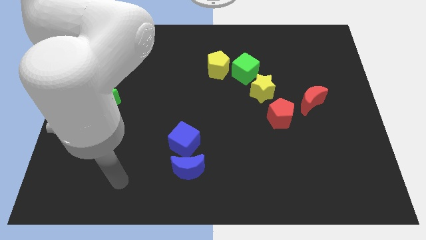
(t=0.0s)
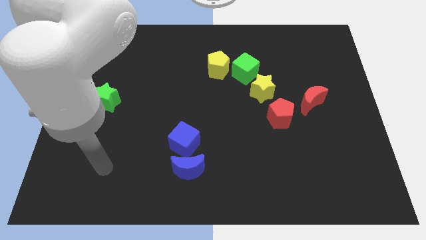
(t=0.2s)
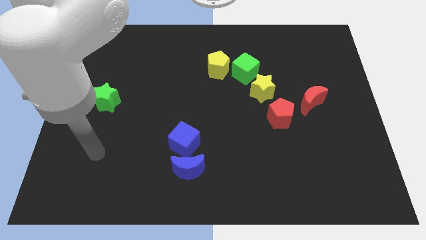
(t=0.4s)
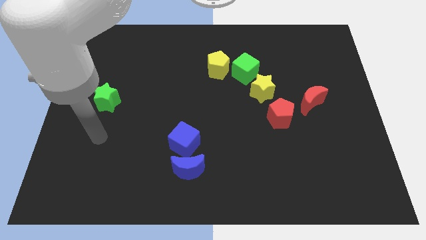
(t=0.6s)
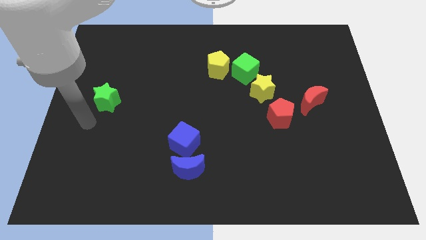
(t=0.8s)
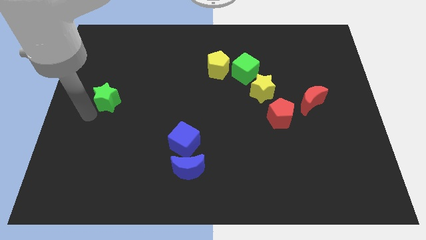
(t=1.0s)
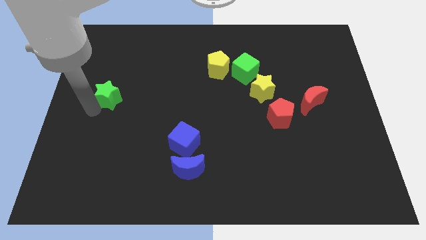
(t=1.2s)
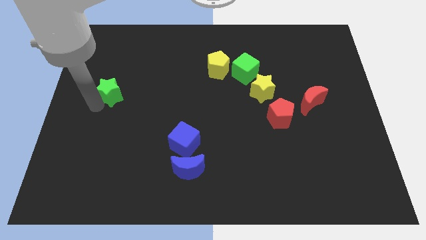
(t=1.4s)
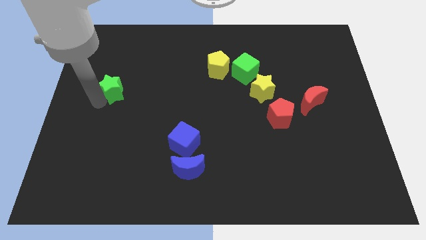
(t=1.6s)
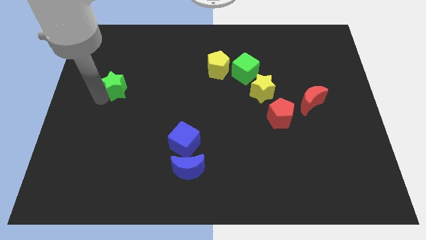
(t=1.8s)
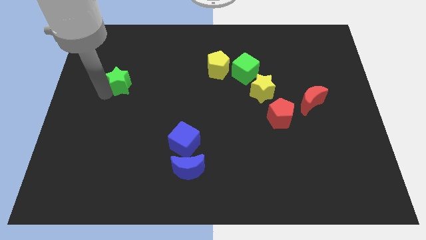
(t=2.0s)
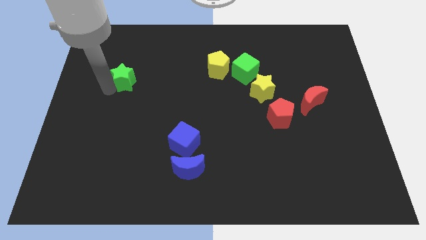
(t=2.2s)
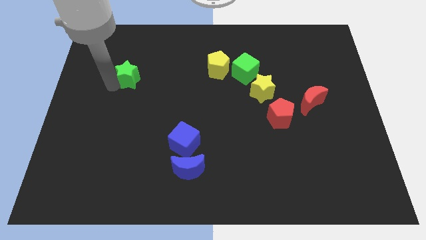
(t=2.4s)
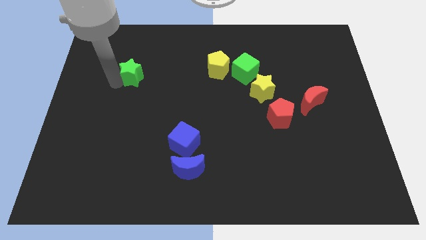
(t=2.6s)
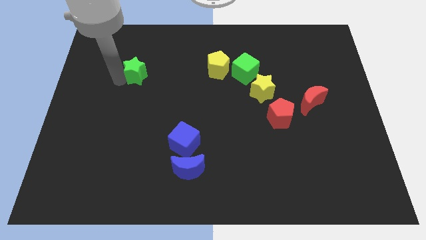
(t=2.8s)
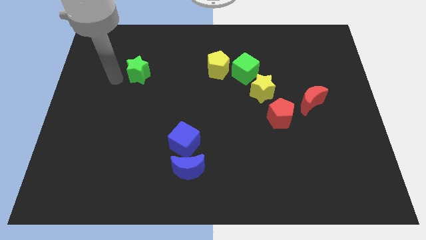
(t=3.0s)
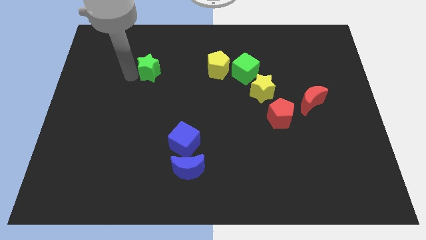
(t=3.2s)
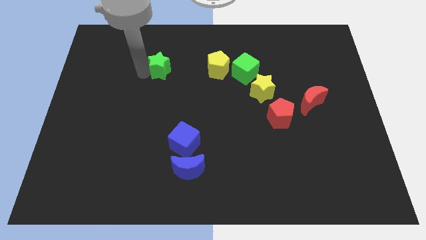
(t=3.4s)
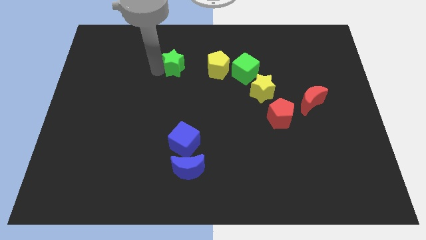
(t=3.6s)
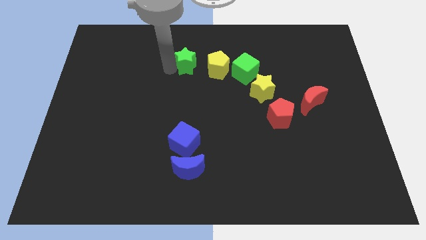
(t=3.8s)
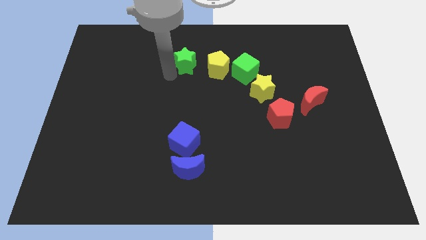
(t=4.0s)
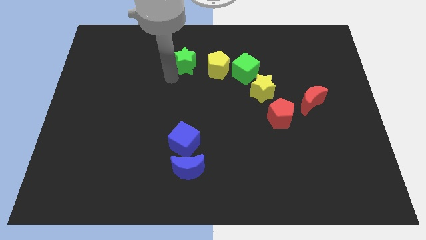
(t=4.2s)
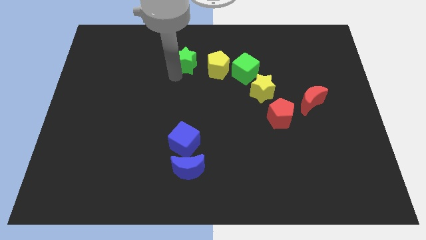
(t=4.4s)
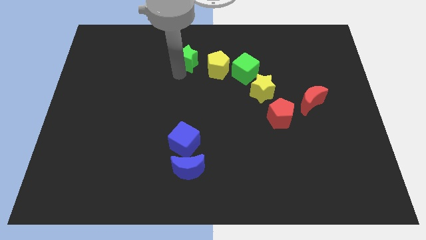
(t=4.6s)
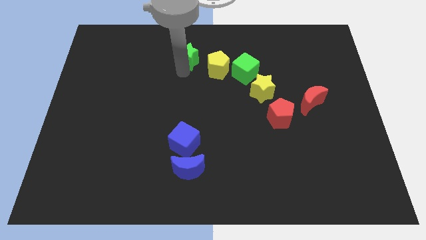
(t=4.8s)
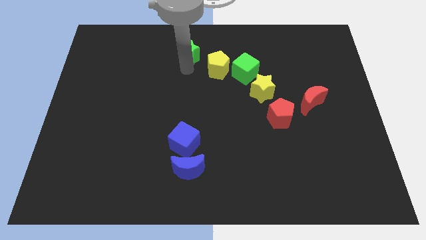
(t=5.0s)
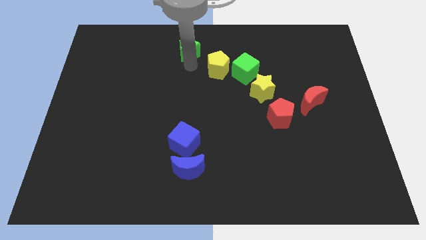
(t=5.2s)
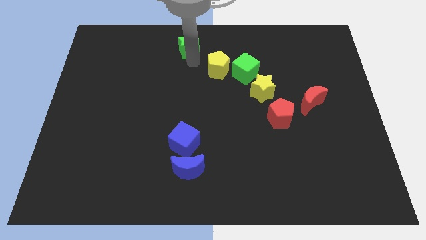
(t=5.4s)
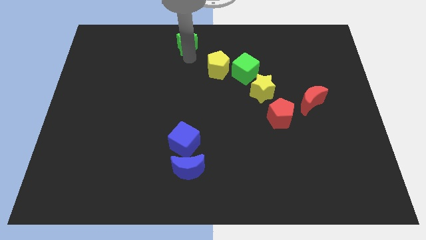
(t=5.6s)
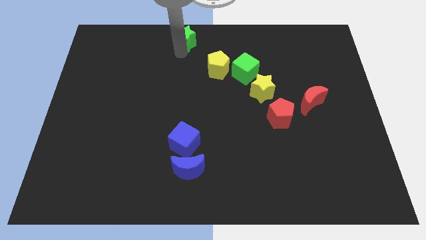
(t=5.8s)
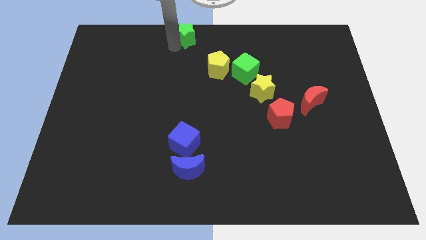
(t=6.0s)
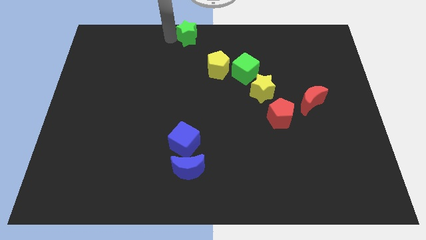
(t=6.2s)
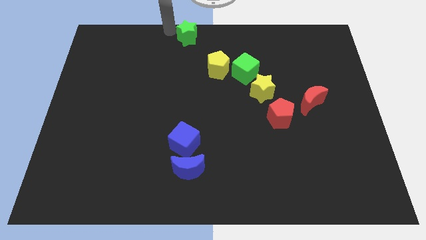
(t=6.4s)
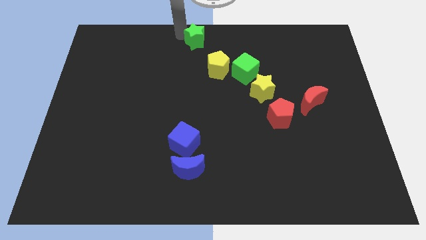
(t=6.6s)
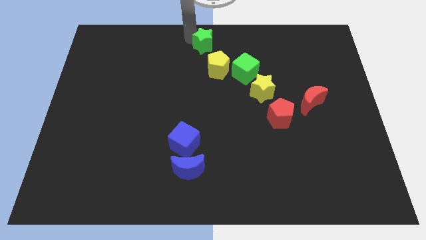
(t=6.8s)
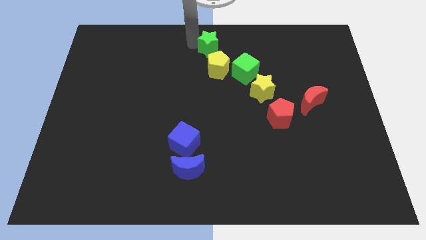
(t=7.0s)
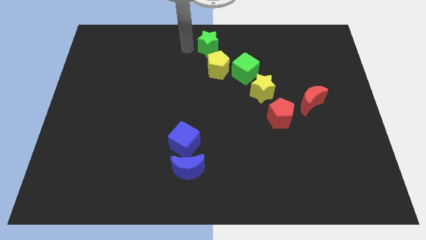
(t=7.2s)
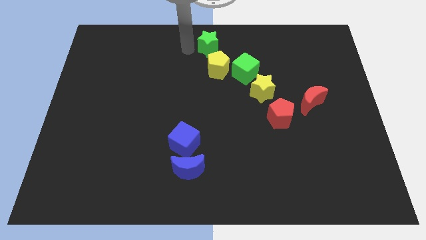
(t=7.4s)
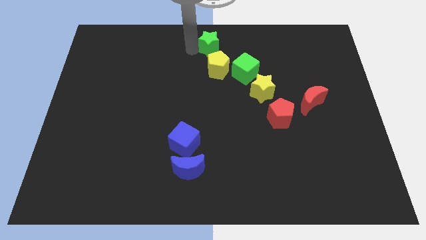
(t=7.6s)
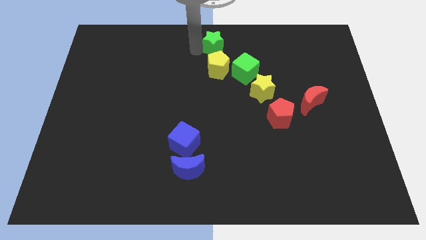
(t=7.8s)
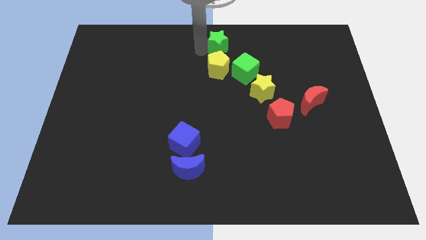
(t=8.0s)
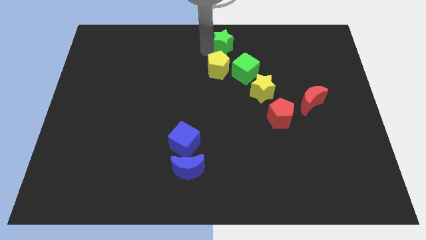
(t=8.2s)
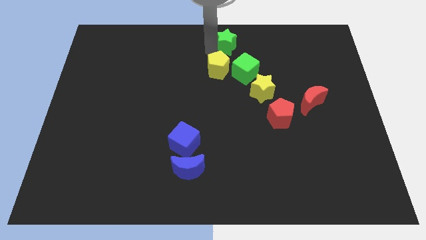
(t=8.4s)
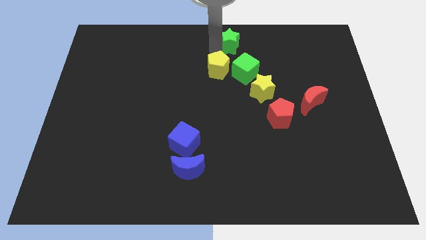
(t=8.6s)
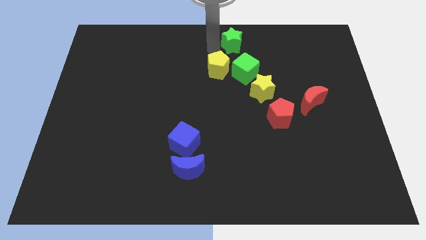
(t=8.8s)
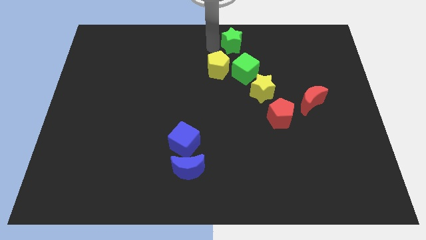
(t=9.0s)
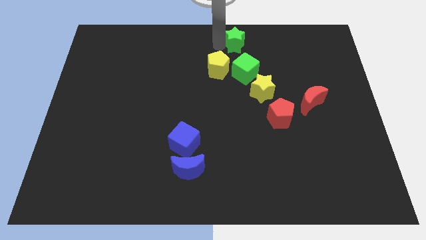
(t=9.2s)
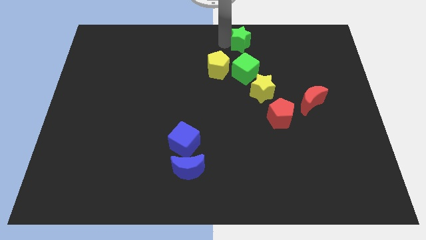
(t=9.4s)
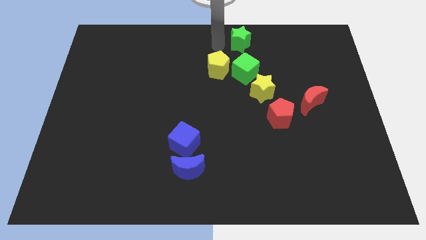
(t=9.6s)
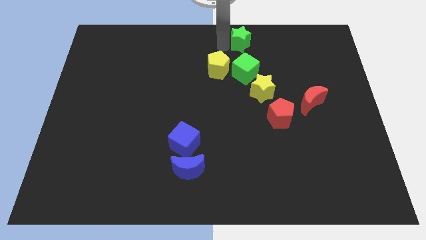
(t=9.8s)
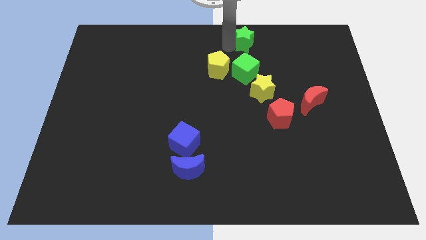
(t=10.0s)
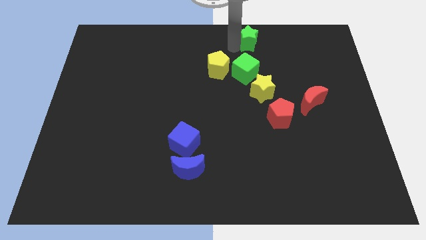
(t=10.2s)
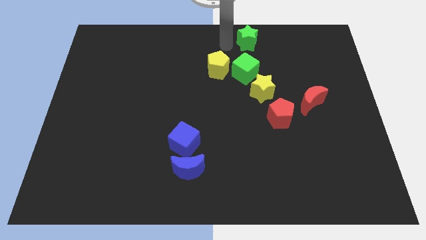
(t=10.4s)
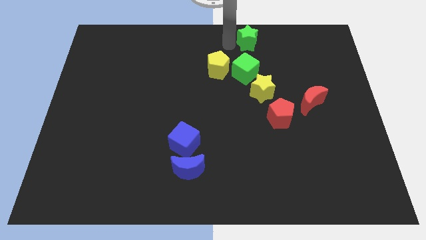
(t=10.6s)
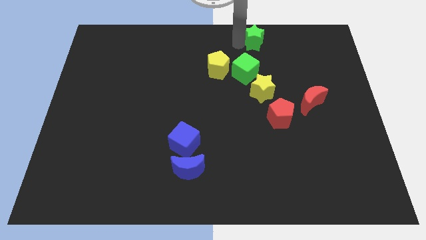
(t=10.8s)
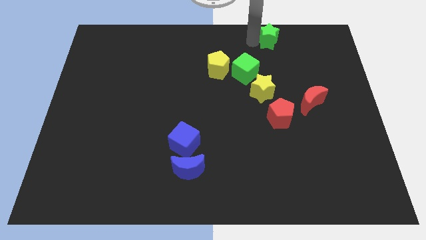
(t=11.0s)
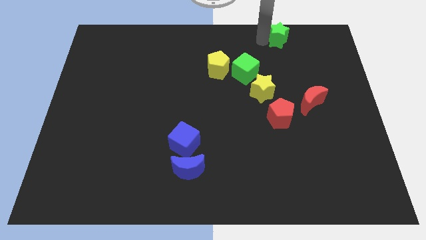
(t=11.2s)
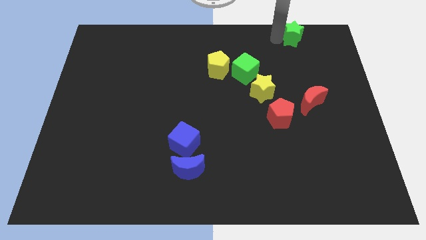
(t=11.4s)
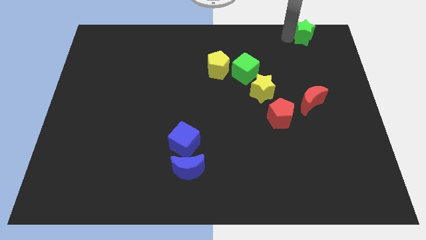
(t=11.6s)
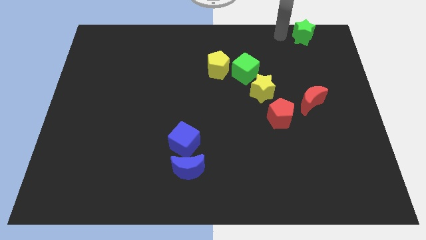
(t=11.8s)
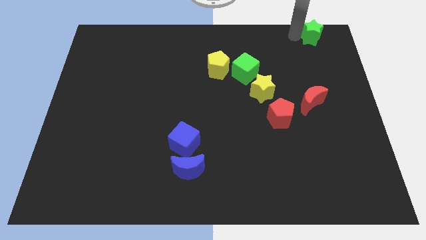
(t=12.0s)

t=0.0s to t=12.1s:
put the green star to the upper right corner
